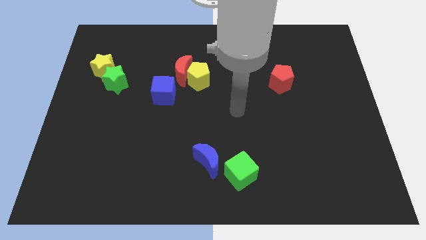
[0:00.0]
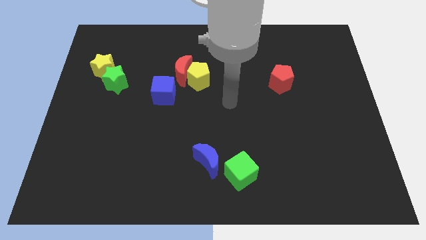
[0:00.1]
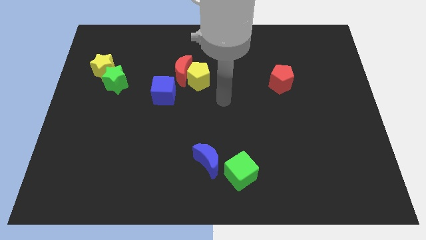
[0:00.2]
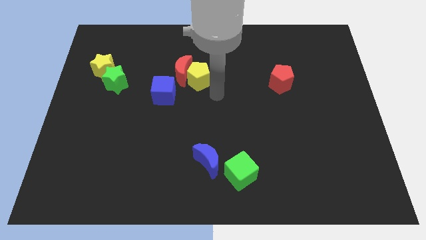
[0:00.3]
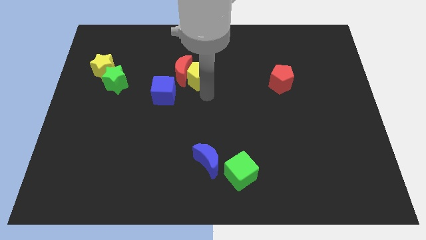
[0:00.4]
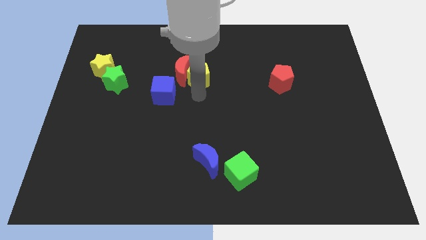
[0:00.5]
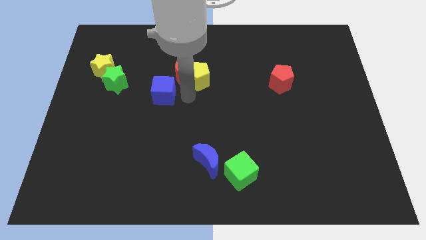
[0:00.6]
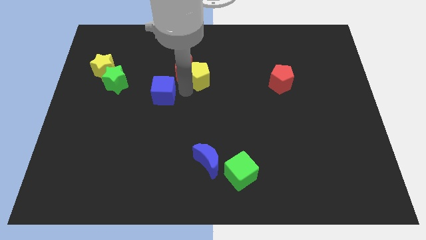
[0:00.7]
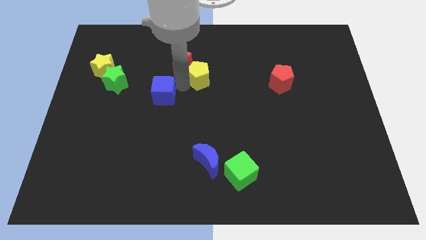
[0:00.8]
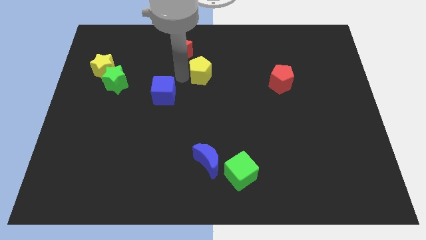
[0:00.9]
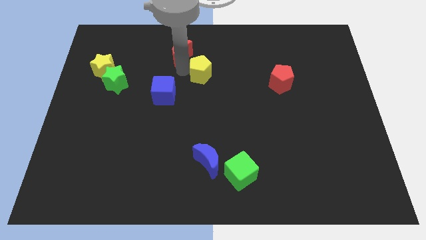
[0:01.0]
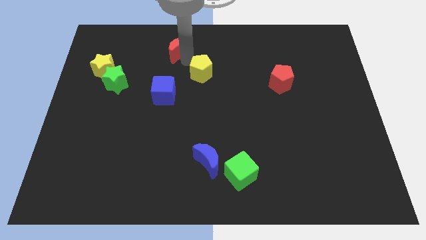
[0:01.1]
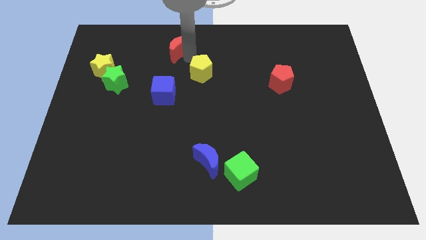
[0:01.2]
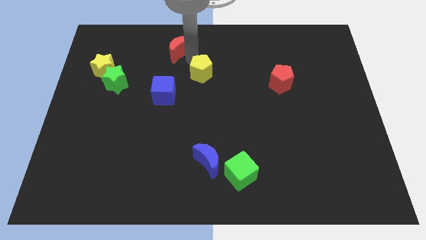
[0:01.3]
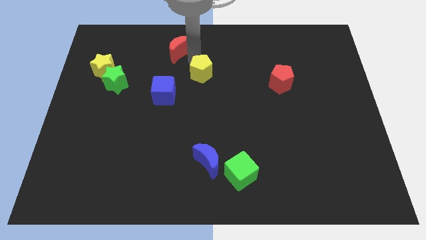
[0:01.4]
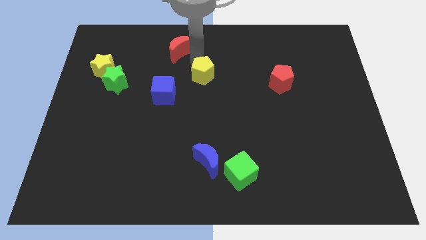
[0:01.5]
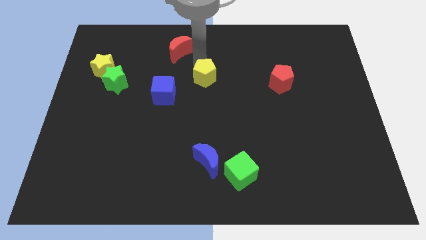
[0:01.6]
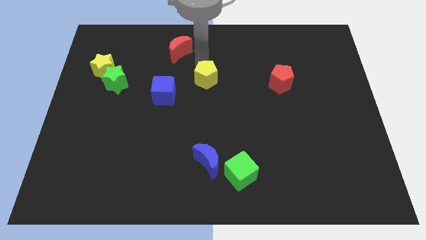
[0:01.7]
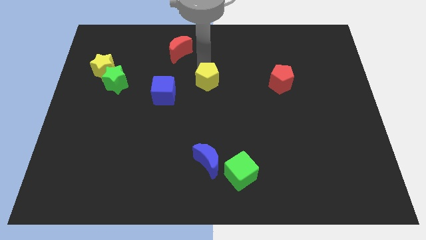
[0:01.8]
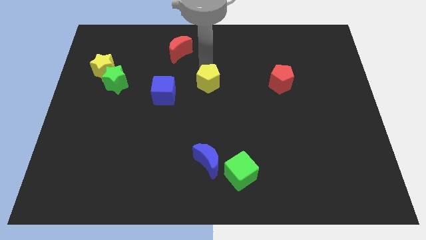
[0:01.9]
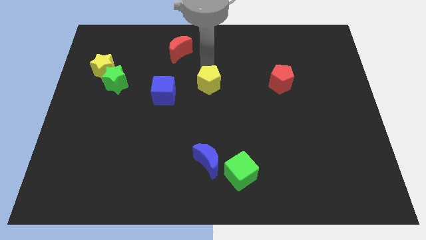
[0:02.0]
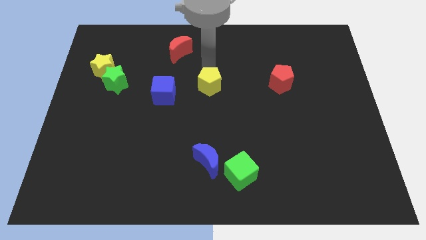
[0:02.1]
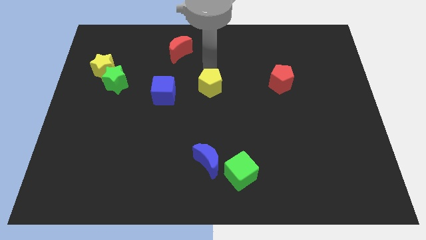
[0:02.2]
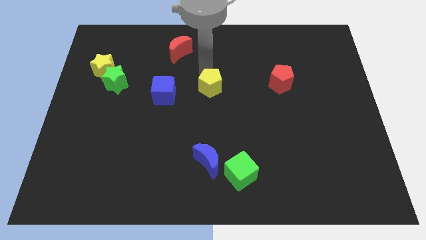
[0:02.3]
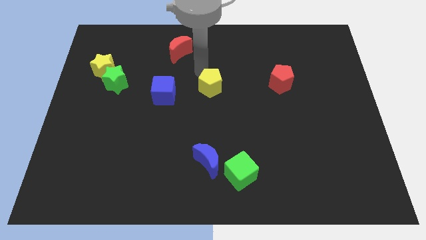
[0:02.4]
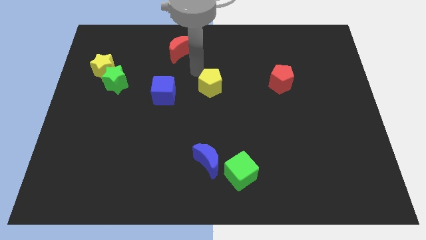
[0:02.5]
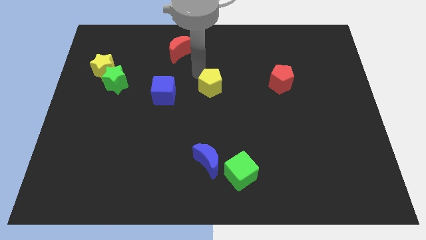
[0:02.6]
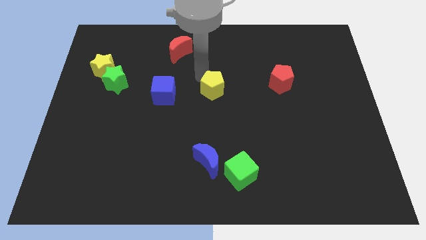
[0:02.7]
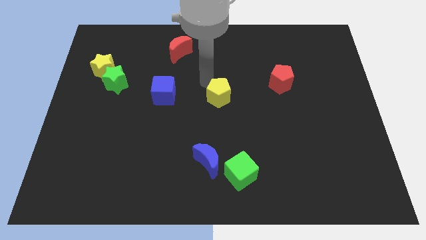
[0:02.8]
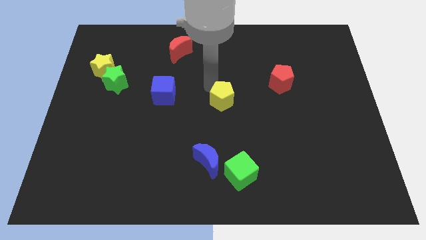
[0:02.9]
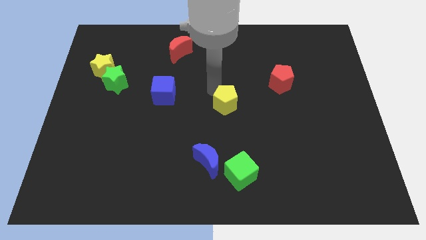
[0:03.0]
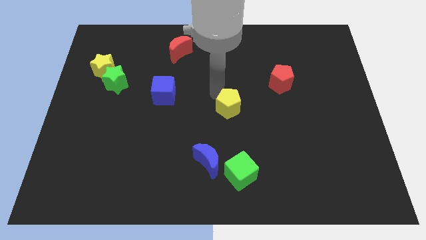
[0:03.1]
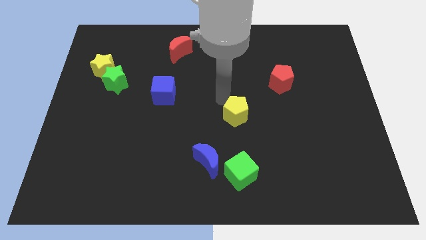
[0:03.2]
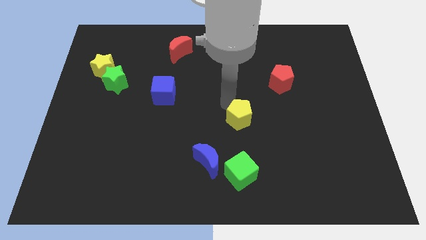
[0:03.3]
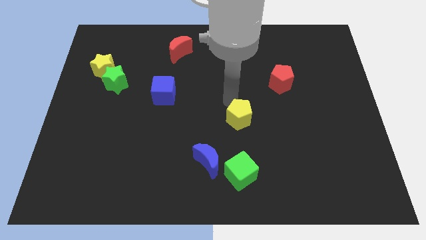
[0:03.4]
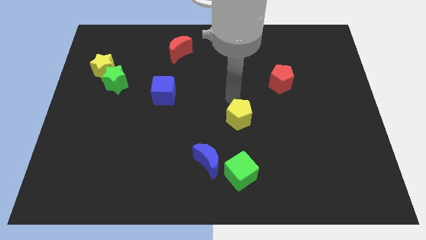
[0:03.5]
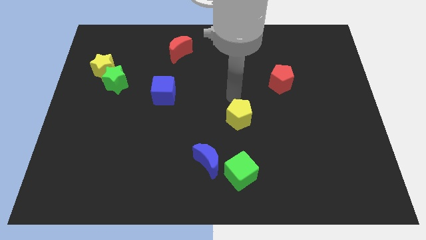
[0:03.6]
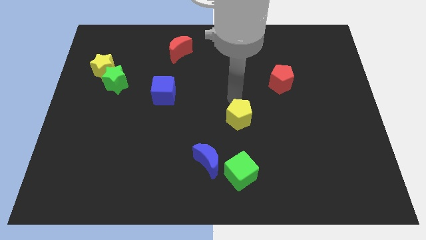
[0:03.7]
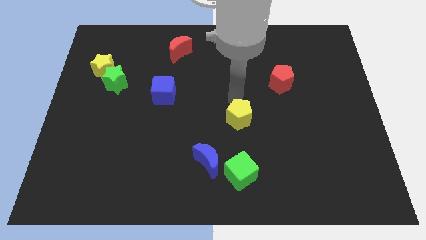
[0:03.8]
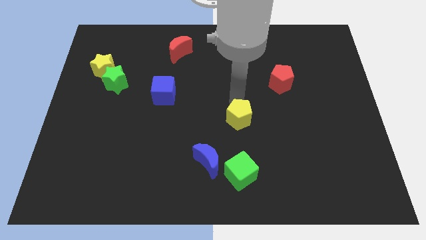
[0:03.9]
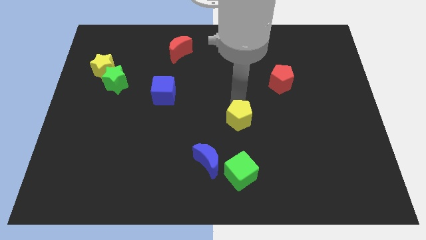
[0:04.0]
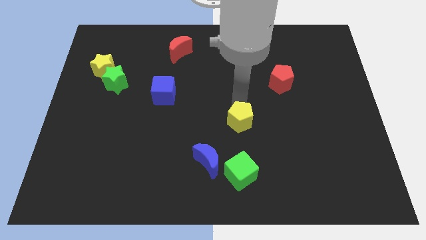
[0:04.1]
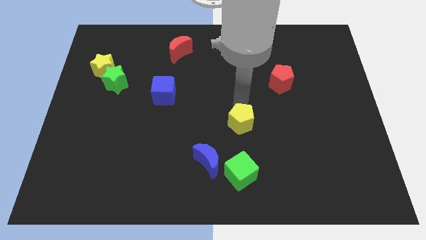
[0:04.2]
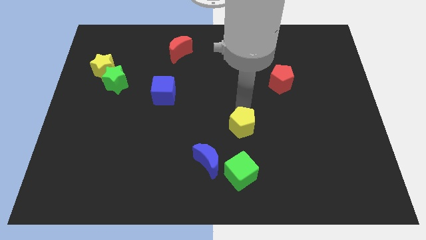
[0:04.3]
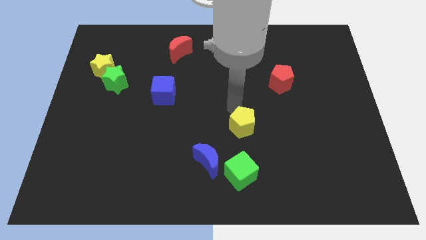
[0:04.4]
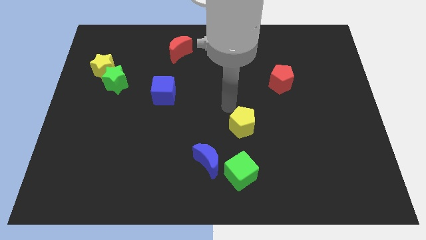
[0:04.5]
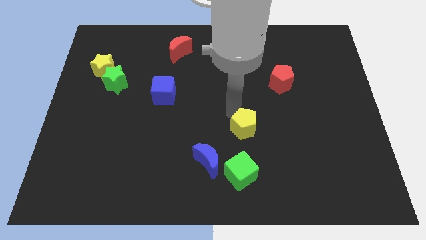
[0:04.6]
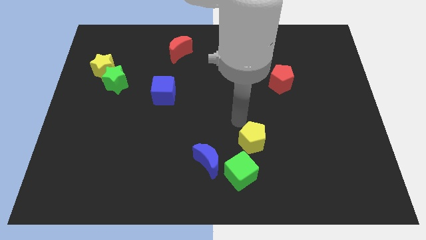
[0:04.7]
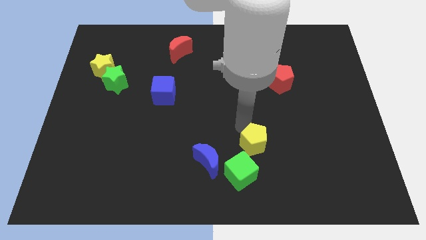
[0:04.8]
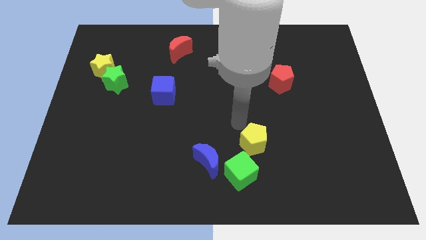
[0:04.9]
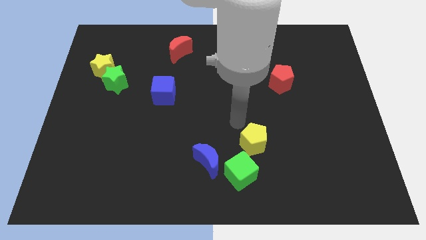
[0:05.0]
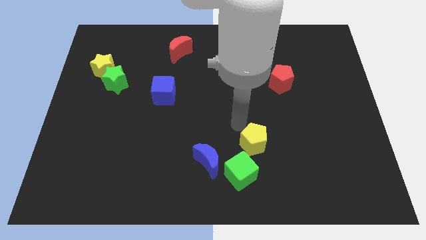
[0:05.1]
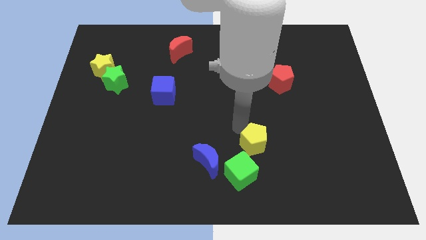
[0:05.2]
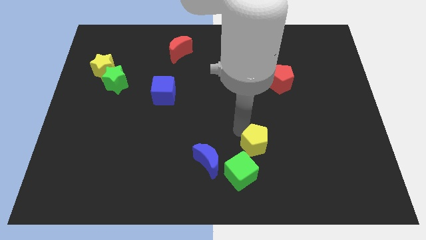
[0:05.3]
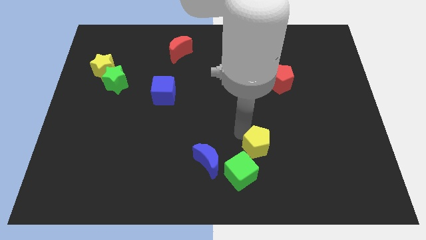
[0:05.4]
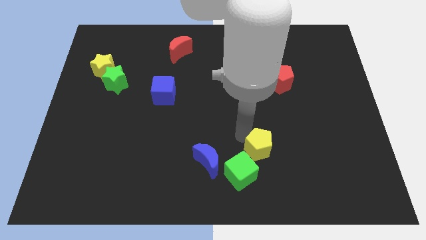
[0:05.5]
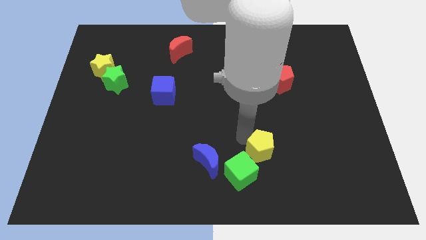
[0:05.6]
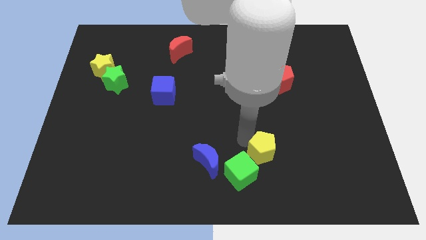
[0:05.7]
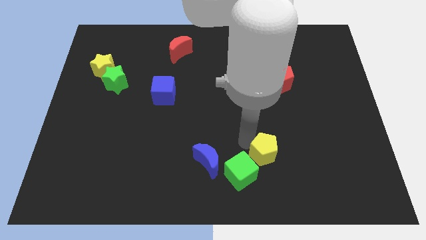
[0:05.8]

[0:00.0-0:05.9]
push the yellow pentagon just right of the green cube

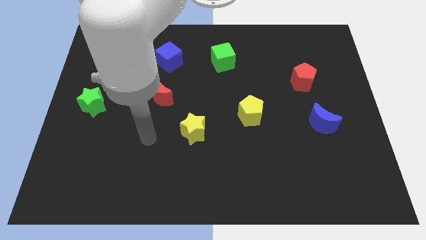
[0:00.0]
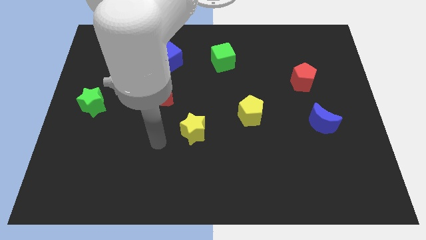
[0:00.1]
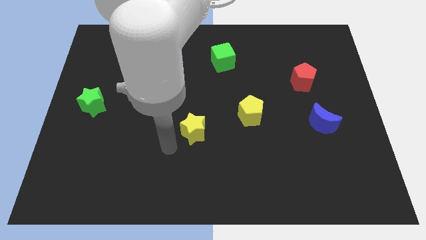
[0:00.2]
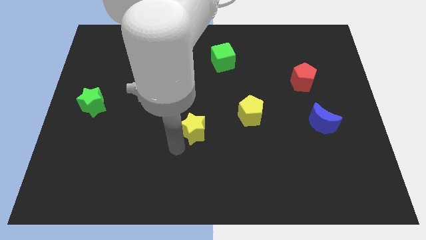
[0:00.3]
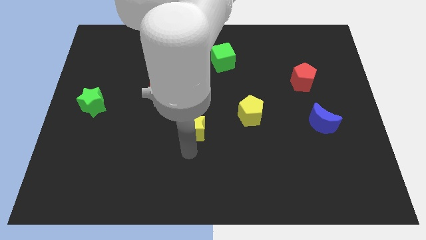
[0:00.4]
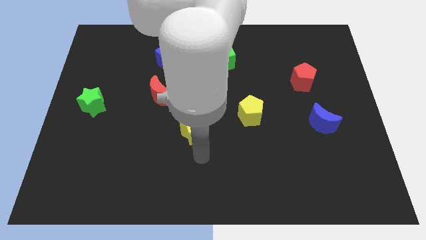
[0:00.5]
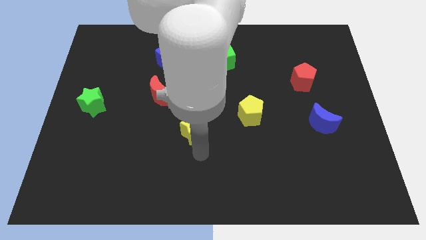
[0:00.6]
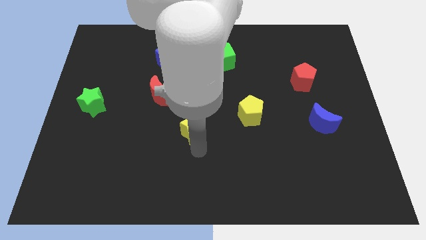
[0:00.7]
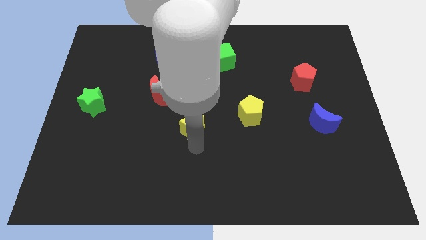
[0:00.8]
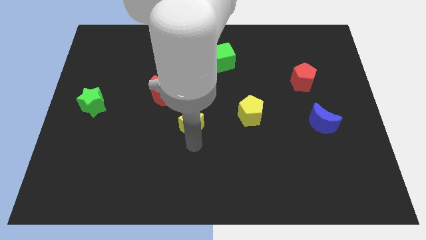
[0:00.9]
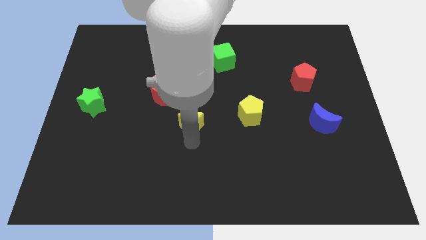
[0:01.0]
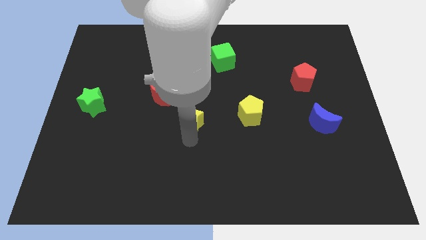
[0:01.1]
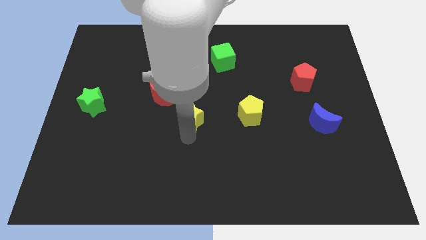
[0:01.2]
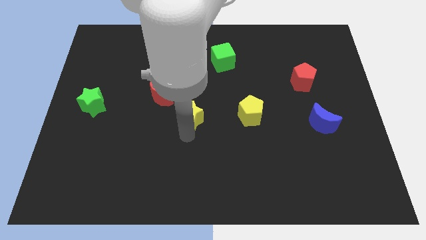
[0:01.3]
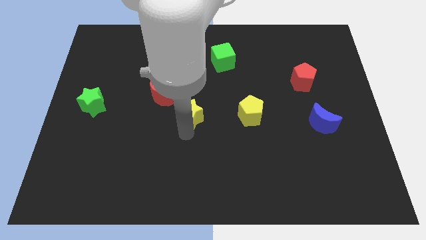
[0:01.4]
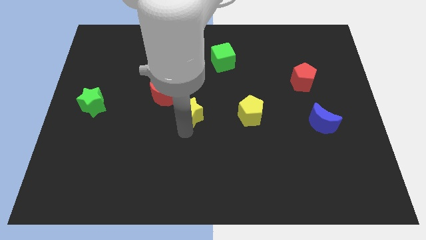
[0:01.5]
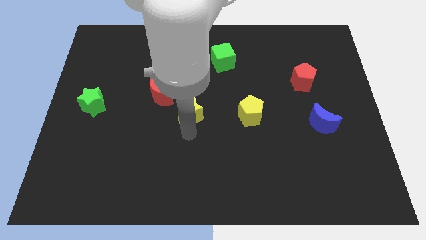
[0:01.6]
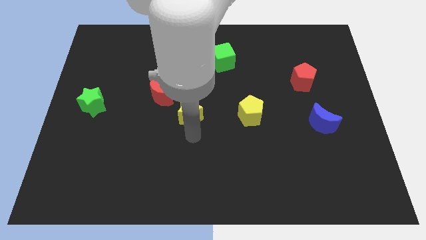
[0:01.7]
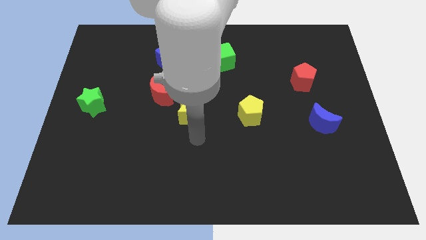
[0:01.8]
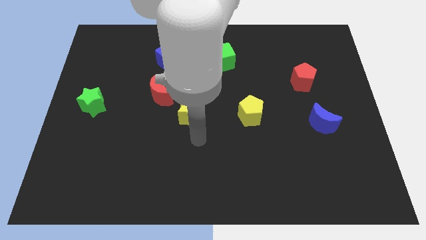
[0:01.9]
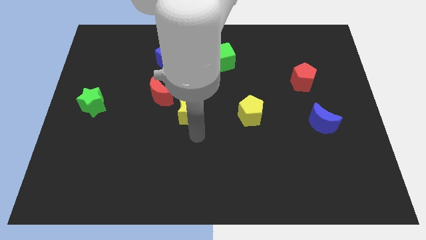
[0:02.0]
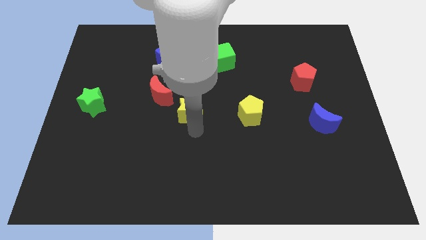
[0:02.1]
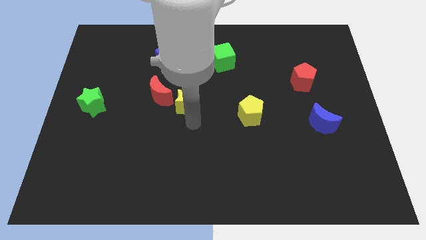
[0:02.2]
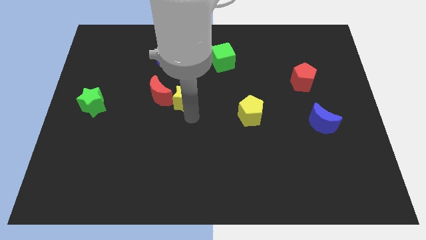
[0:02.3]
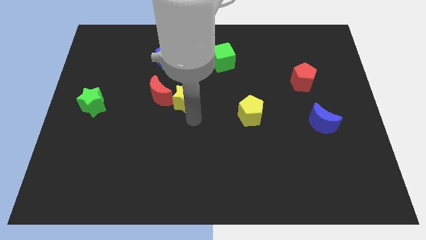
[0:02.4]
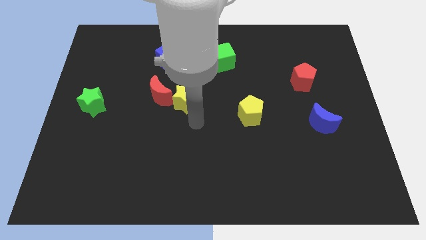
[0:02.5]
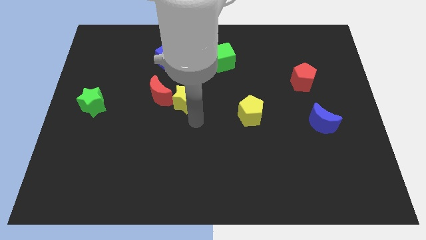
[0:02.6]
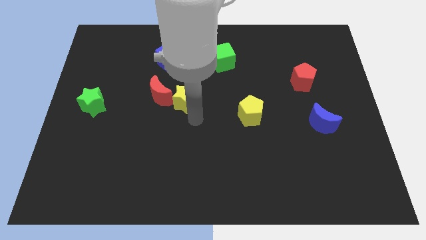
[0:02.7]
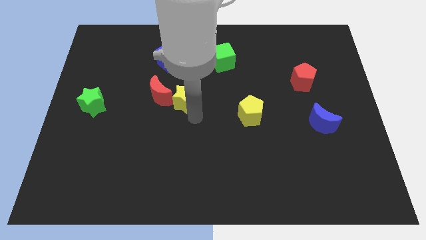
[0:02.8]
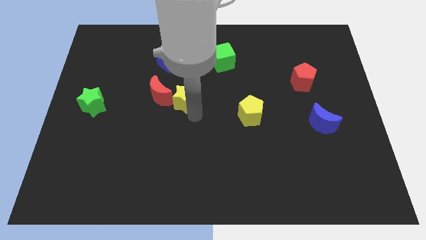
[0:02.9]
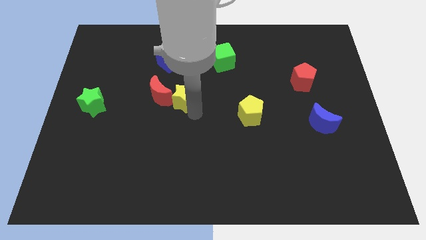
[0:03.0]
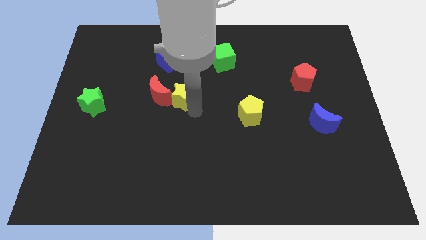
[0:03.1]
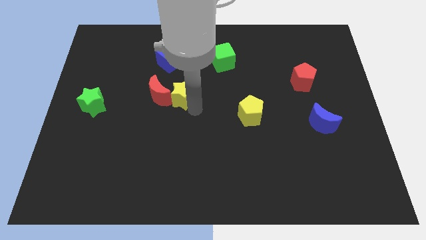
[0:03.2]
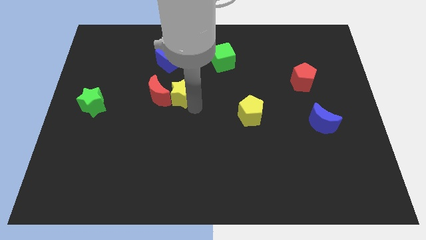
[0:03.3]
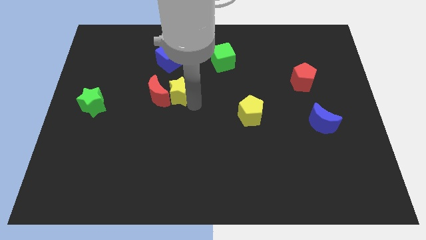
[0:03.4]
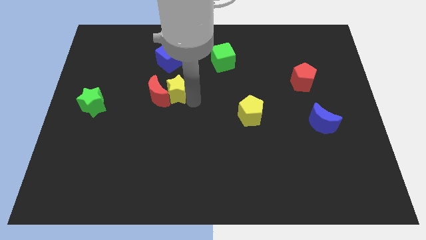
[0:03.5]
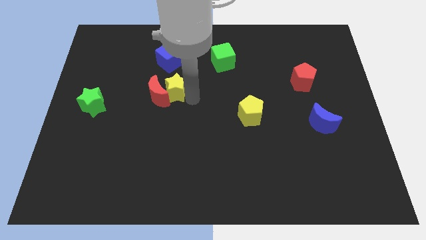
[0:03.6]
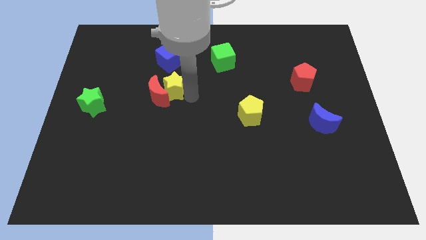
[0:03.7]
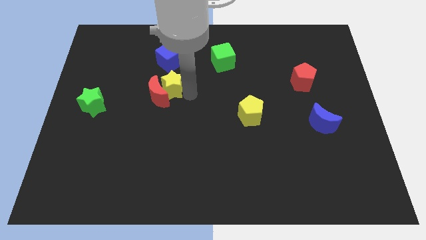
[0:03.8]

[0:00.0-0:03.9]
push the yellow star to the top of the red moon
